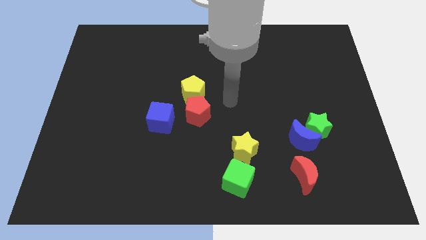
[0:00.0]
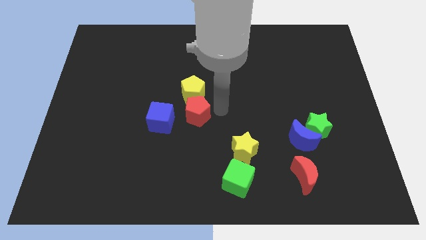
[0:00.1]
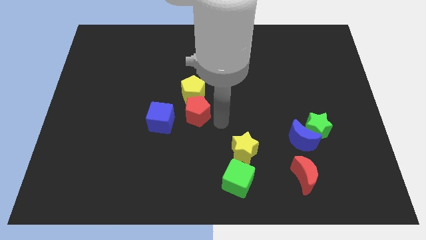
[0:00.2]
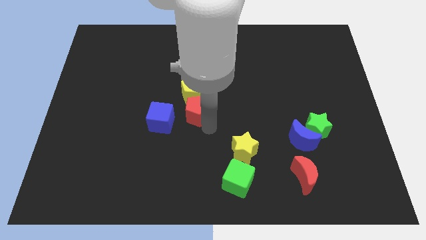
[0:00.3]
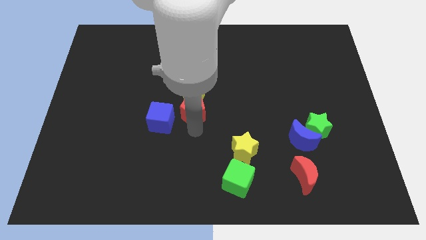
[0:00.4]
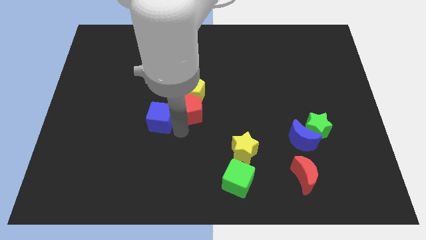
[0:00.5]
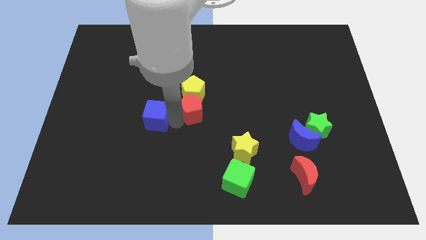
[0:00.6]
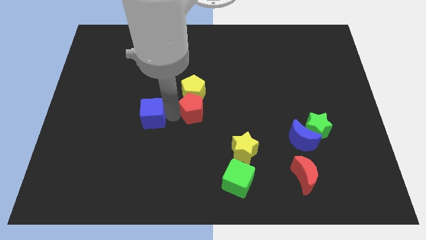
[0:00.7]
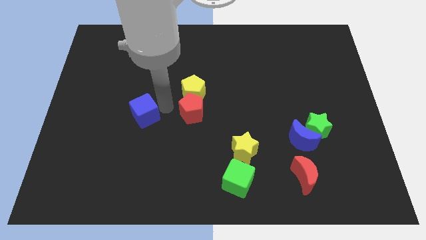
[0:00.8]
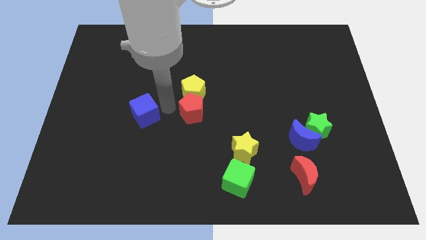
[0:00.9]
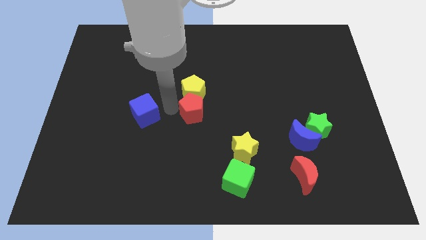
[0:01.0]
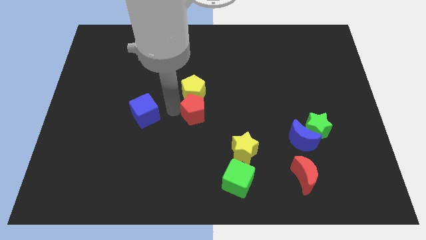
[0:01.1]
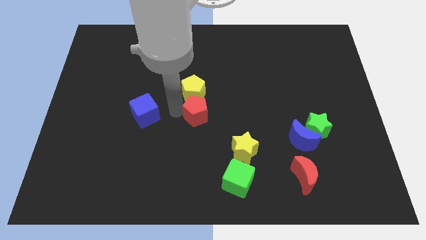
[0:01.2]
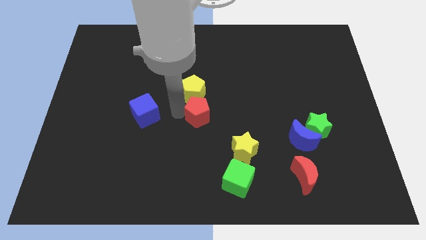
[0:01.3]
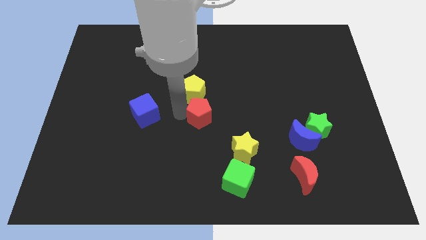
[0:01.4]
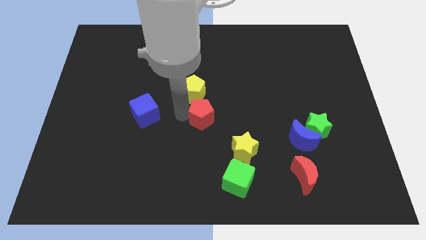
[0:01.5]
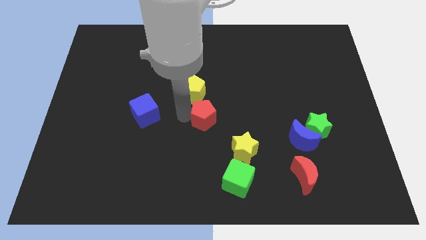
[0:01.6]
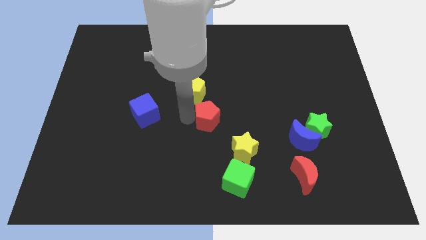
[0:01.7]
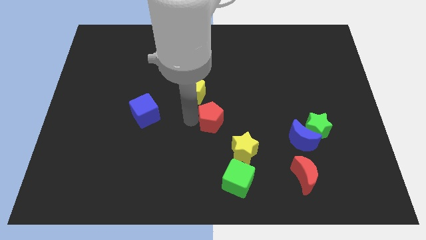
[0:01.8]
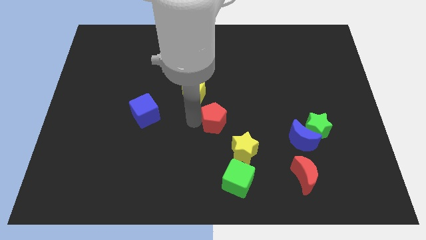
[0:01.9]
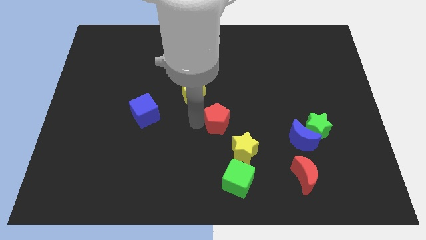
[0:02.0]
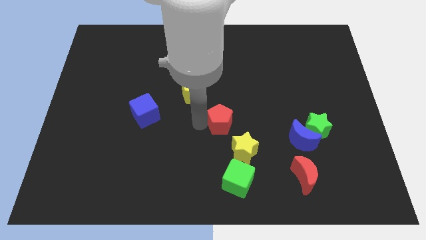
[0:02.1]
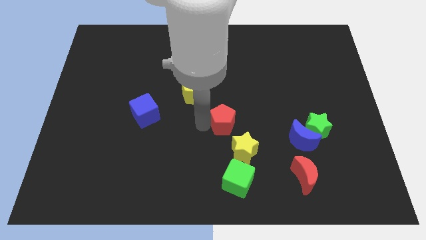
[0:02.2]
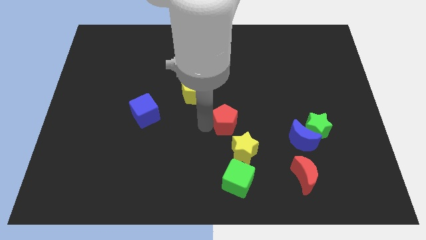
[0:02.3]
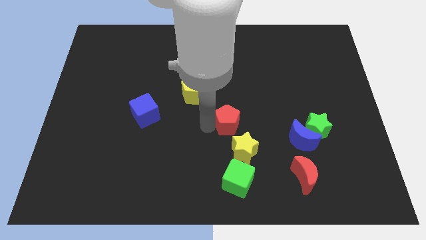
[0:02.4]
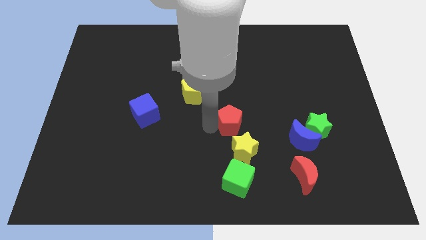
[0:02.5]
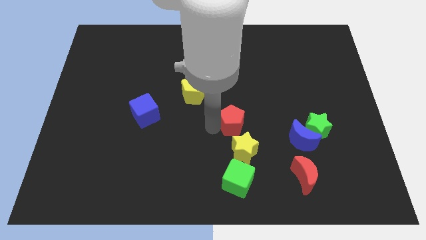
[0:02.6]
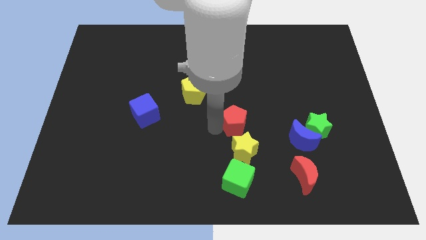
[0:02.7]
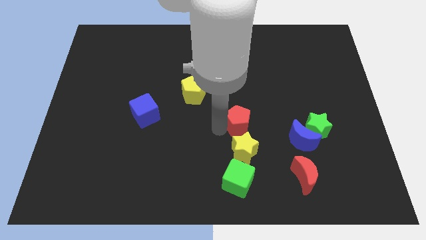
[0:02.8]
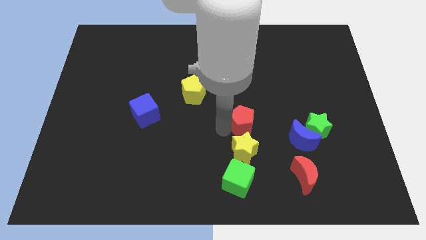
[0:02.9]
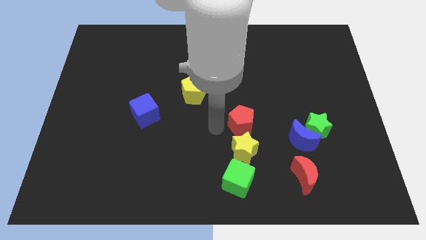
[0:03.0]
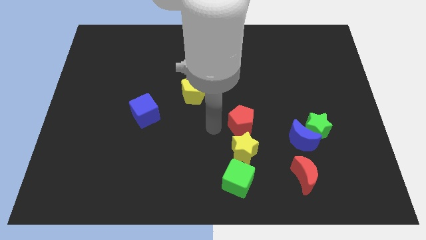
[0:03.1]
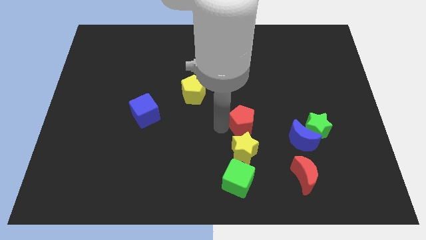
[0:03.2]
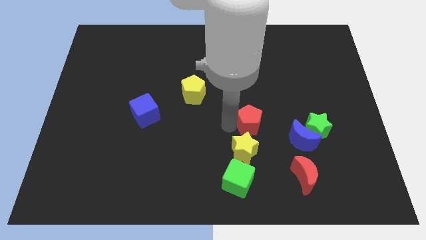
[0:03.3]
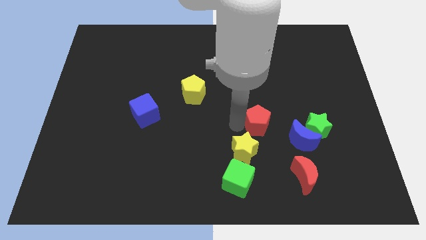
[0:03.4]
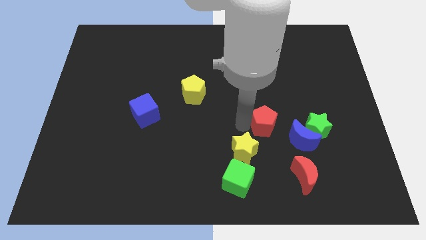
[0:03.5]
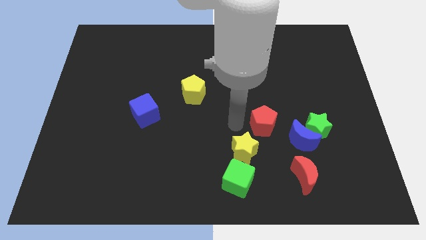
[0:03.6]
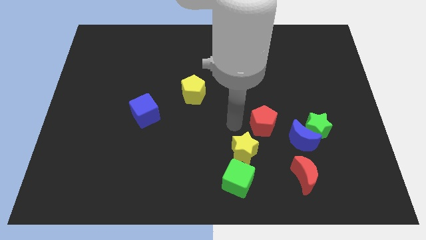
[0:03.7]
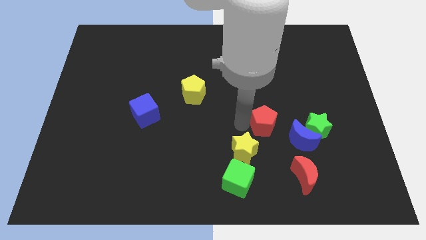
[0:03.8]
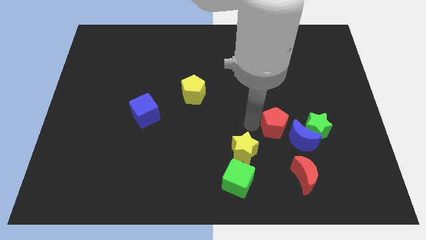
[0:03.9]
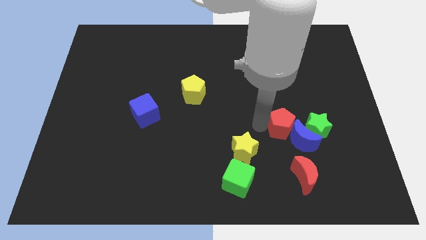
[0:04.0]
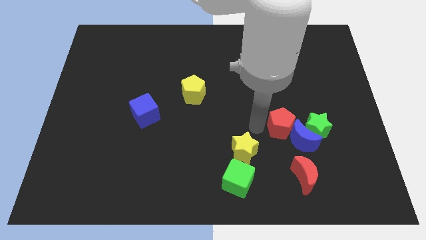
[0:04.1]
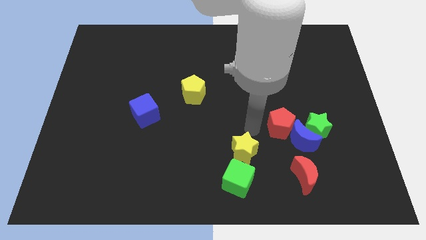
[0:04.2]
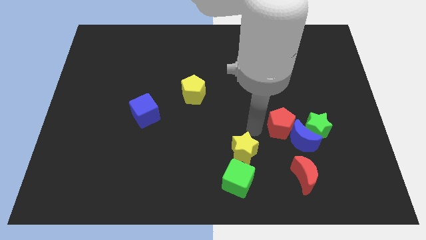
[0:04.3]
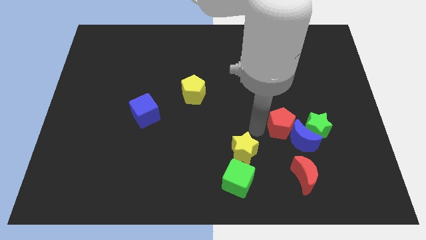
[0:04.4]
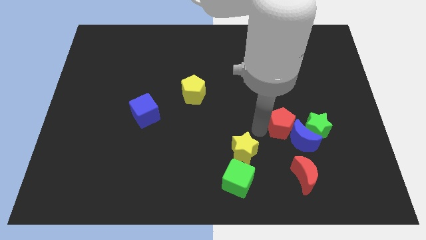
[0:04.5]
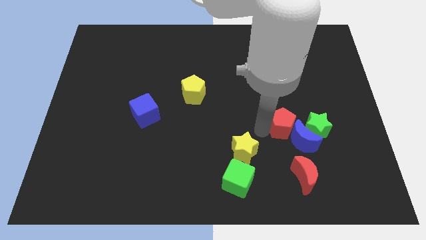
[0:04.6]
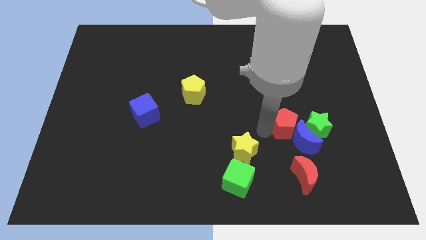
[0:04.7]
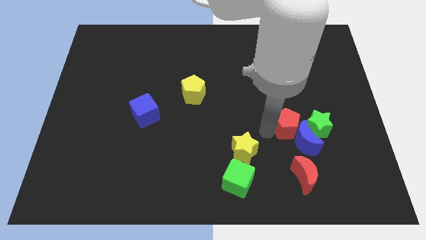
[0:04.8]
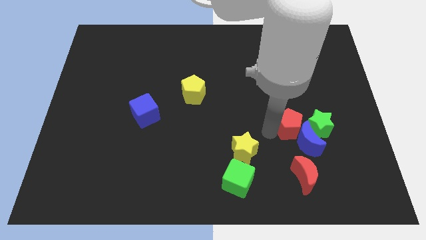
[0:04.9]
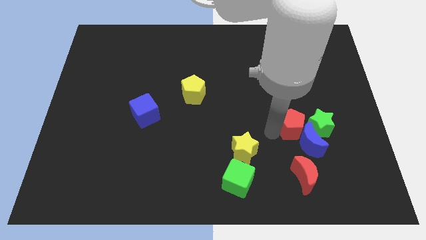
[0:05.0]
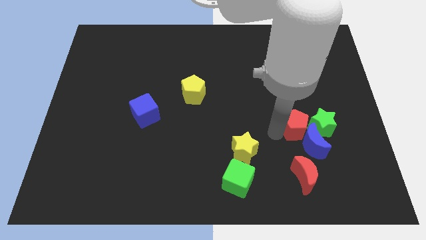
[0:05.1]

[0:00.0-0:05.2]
put the red pentagon towards the green star

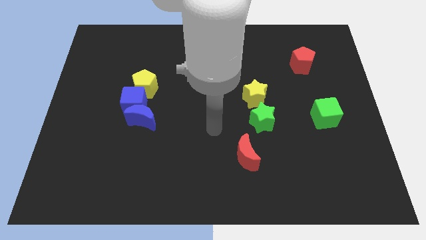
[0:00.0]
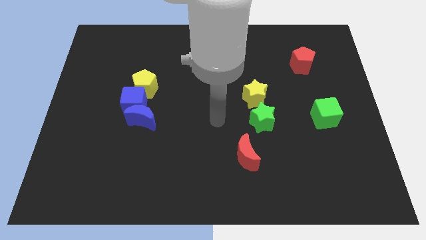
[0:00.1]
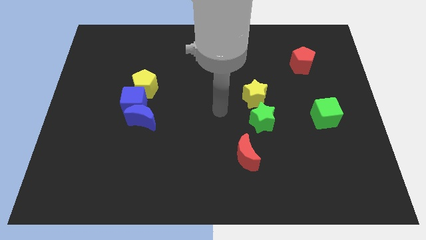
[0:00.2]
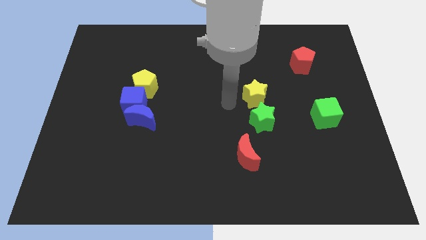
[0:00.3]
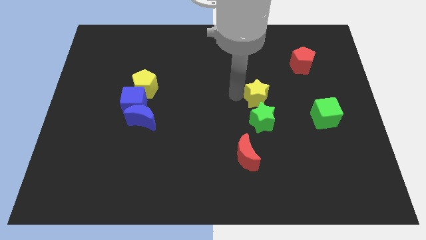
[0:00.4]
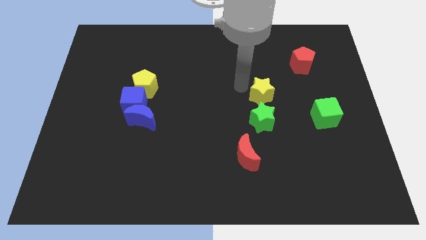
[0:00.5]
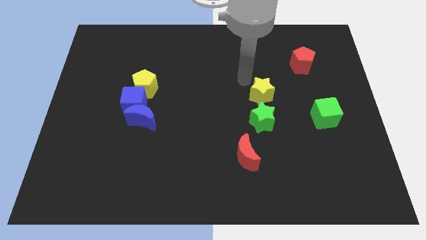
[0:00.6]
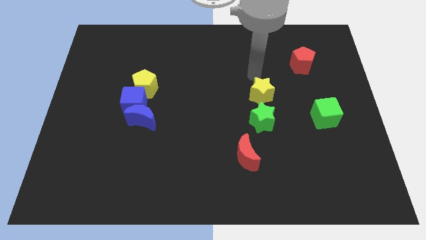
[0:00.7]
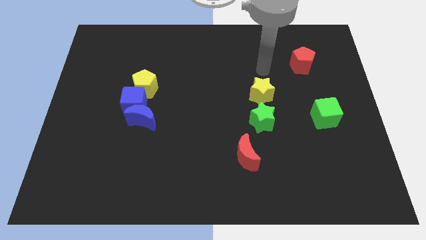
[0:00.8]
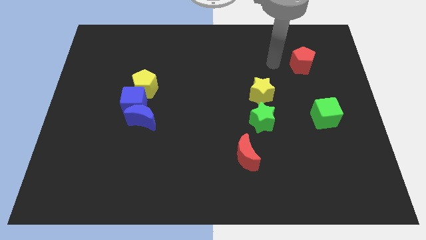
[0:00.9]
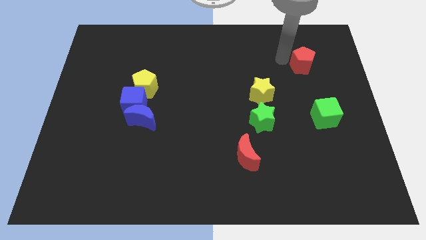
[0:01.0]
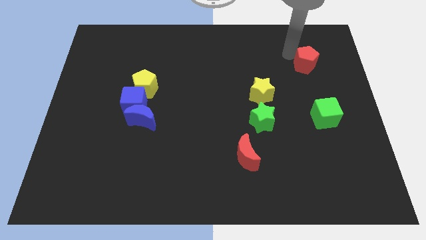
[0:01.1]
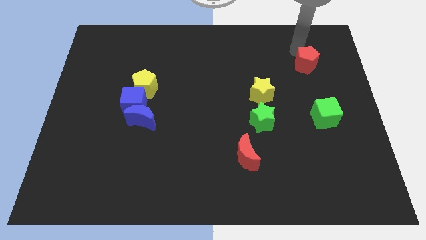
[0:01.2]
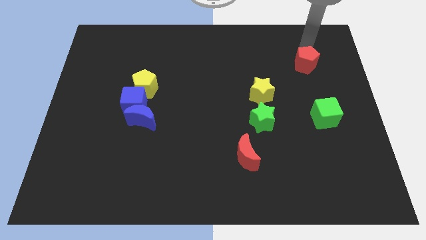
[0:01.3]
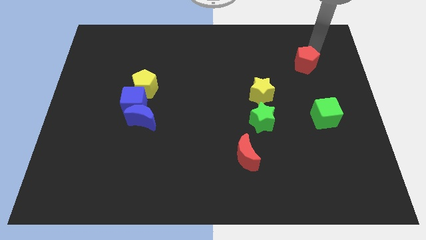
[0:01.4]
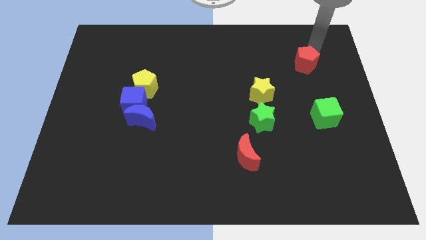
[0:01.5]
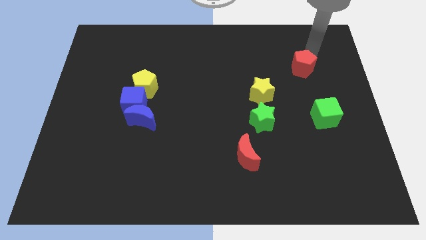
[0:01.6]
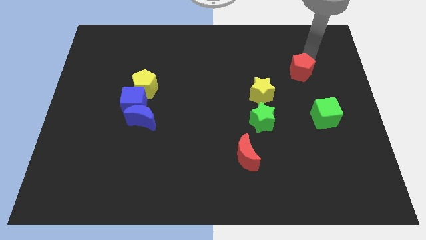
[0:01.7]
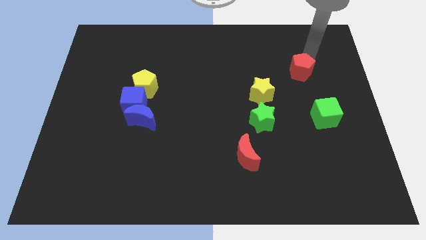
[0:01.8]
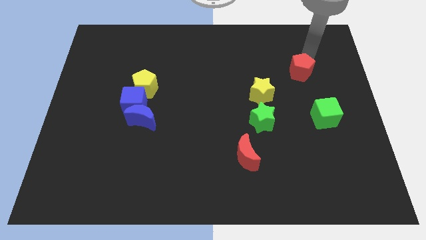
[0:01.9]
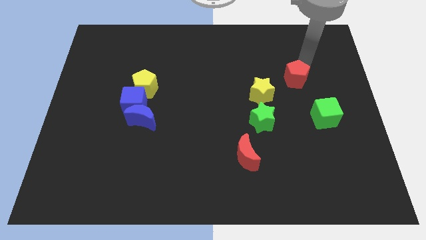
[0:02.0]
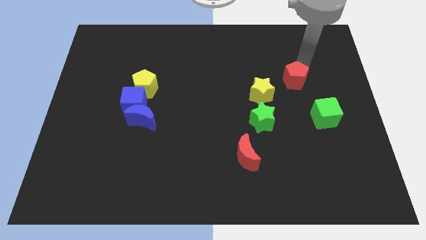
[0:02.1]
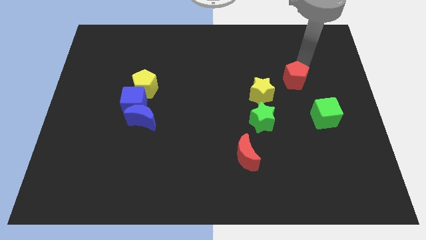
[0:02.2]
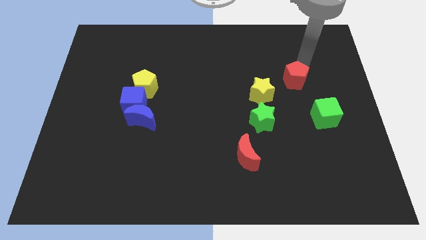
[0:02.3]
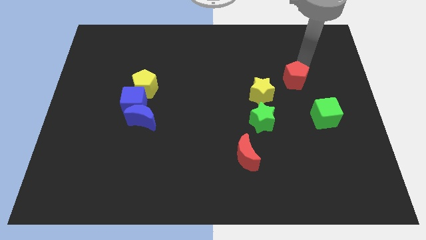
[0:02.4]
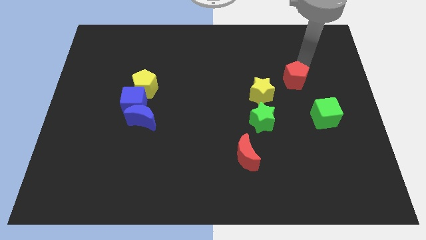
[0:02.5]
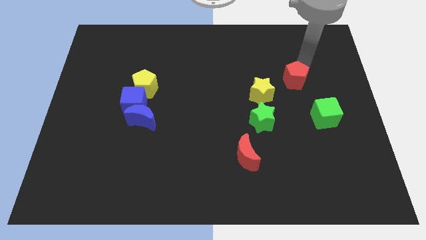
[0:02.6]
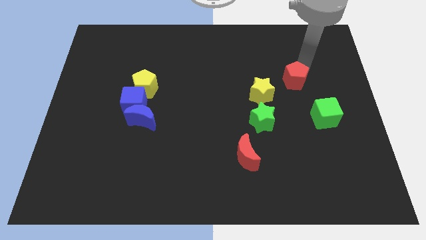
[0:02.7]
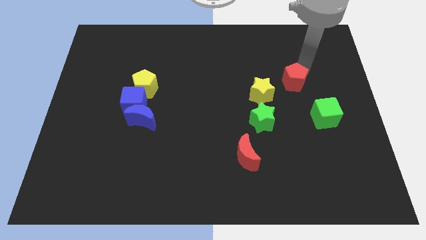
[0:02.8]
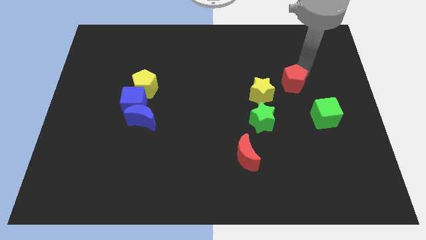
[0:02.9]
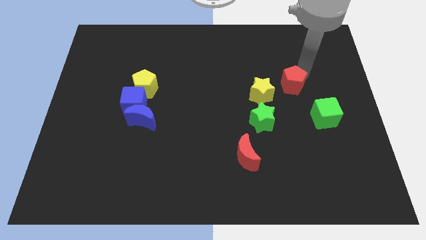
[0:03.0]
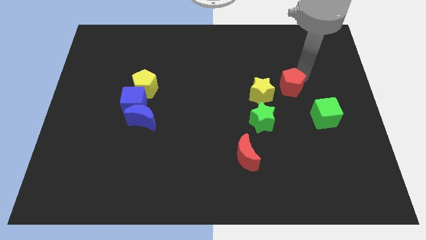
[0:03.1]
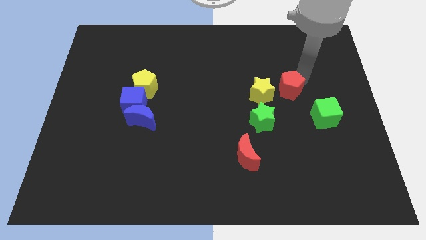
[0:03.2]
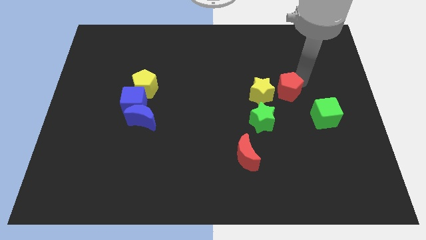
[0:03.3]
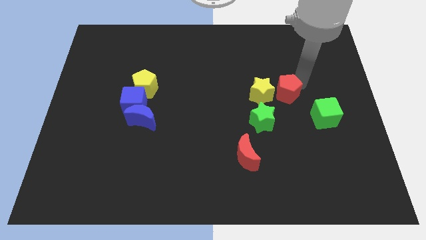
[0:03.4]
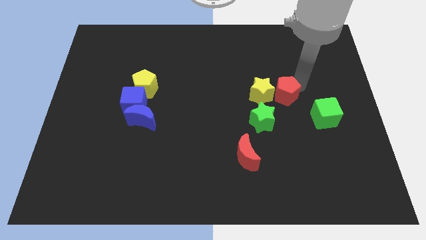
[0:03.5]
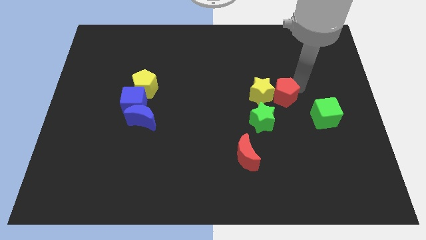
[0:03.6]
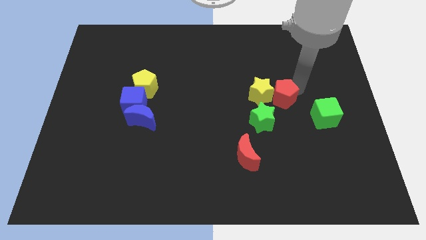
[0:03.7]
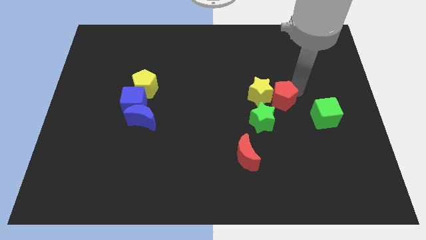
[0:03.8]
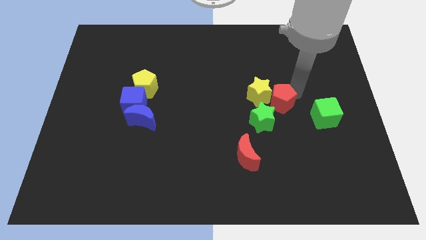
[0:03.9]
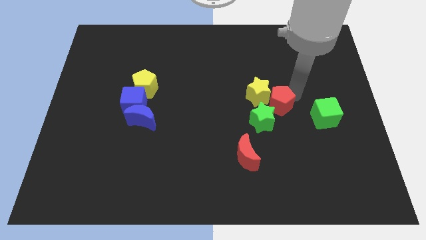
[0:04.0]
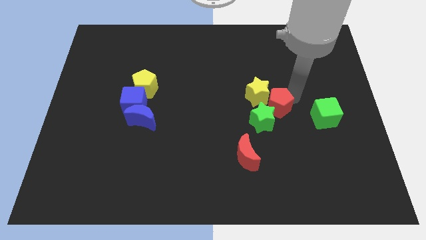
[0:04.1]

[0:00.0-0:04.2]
push the red pentagon close to the green star
